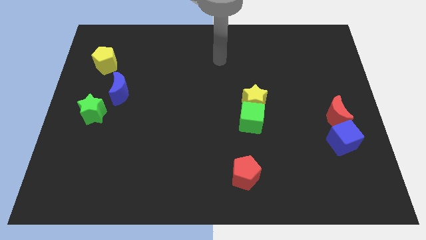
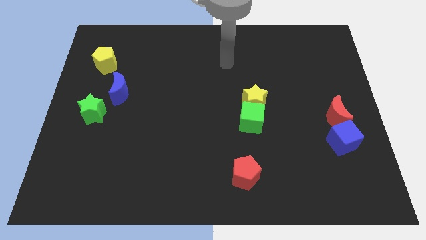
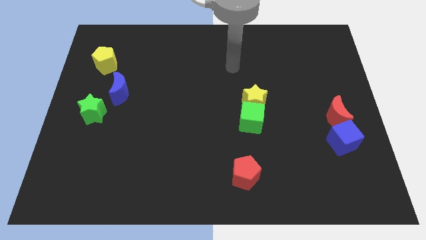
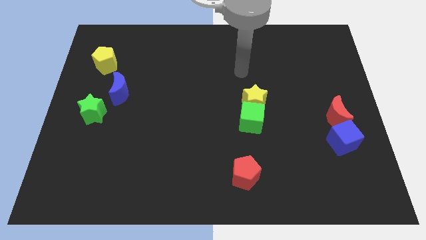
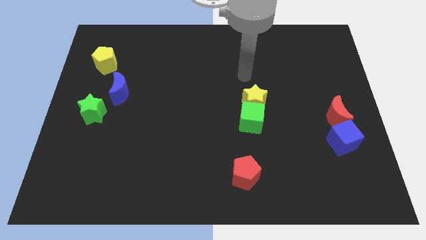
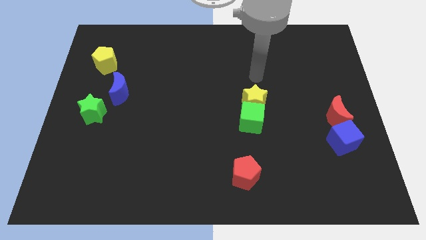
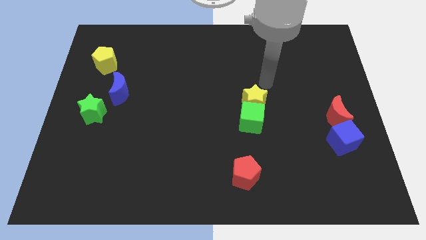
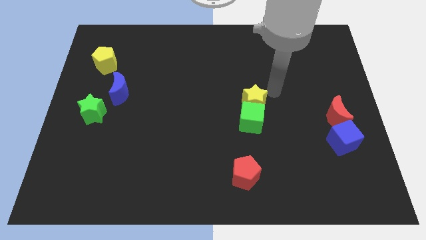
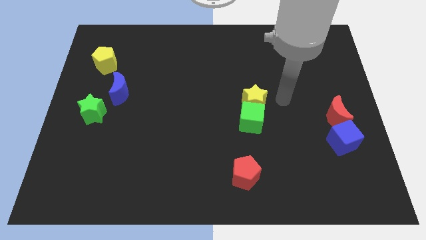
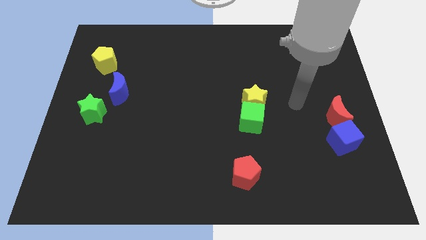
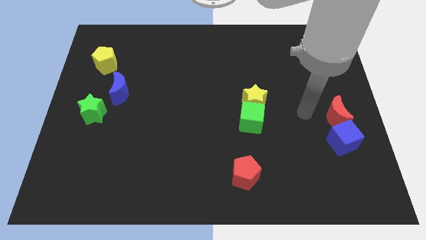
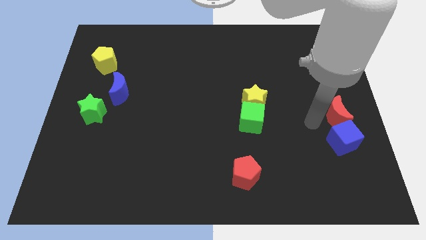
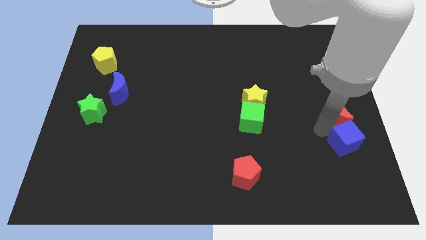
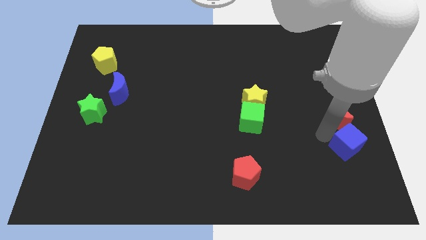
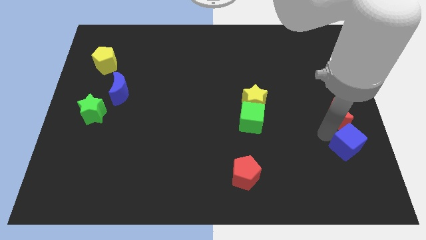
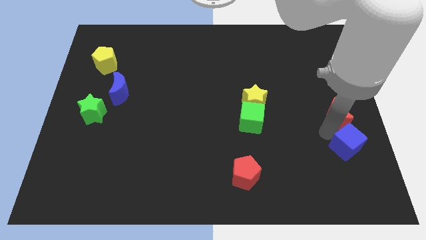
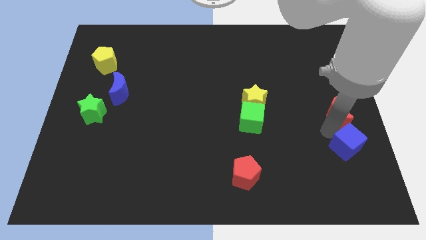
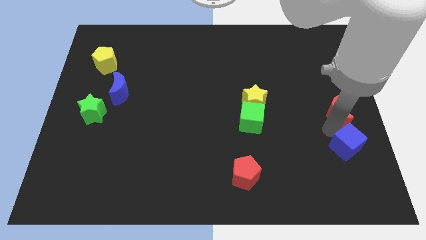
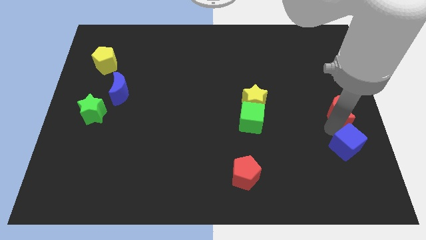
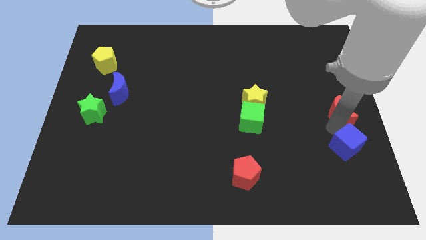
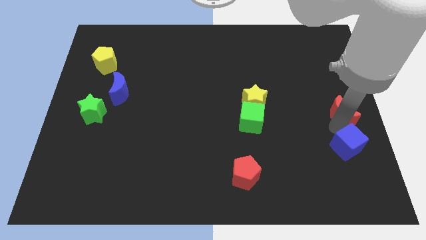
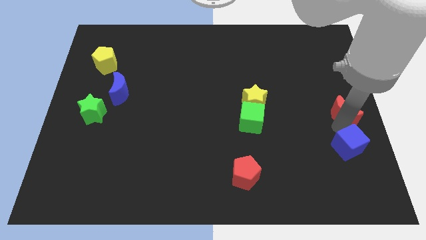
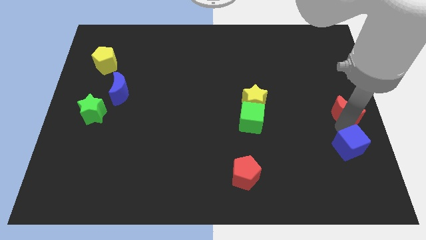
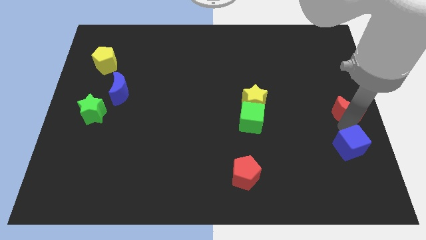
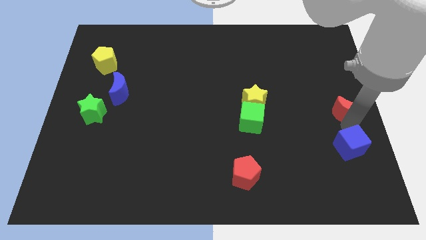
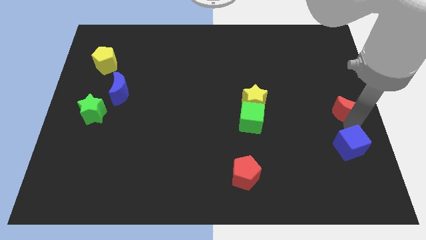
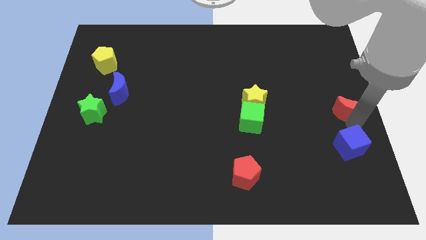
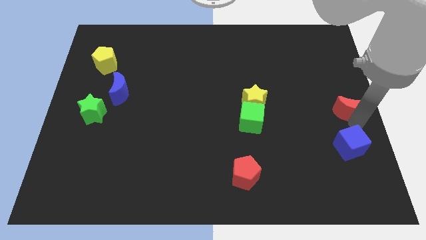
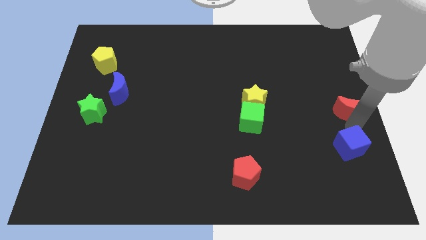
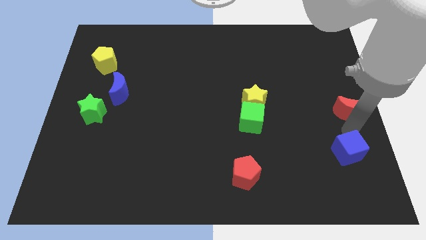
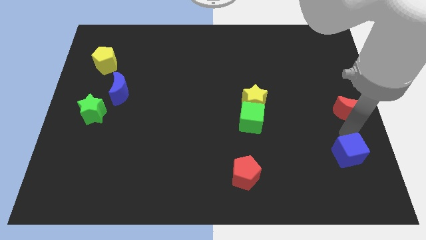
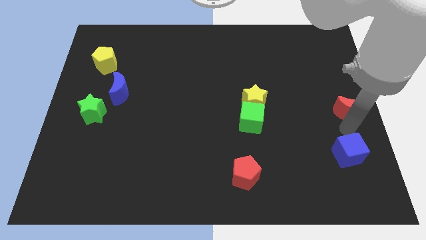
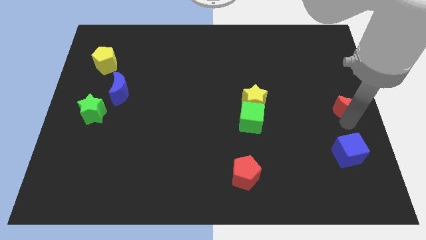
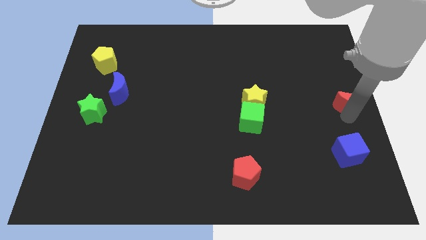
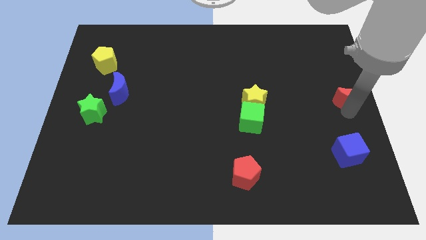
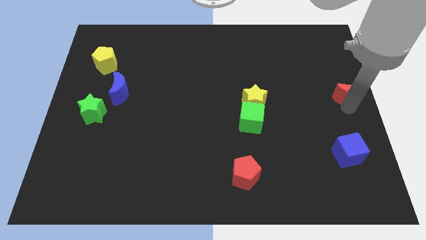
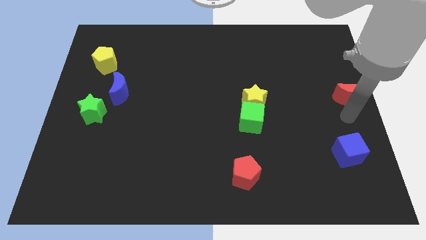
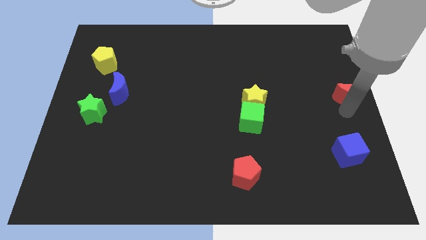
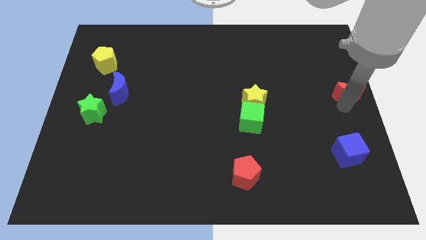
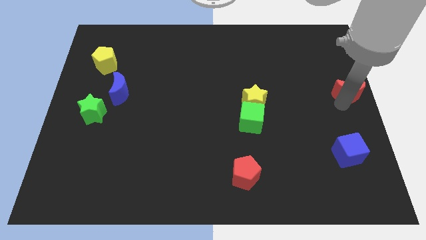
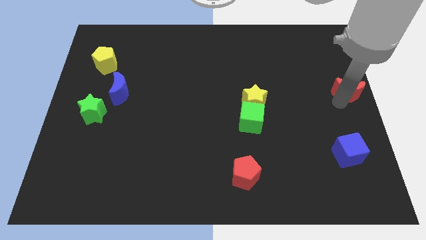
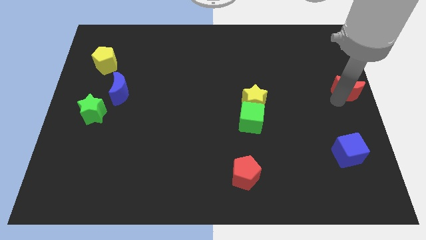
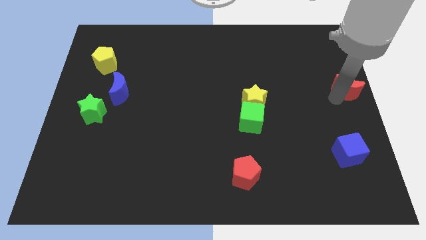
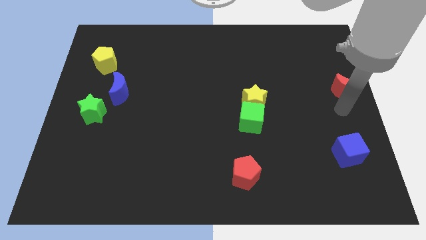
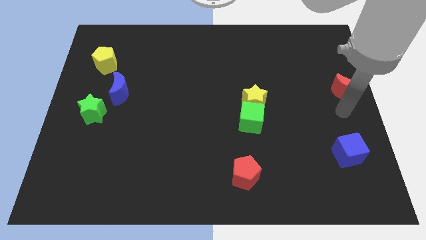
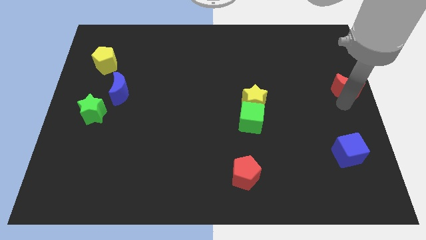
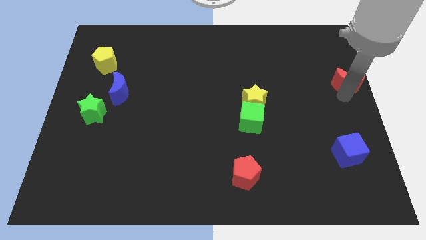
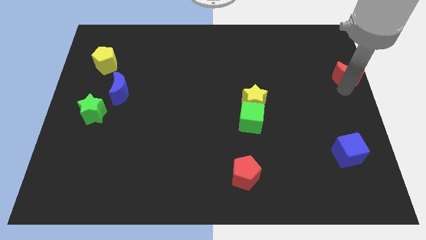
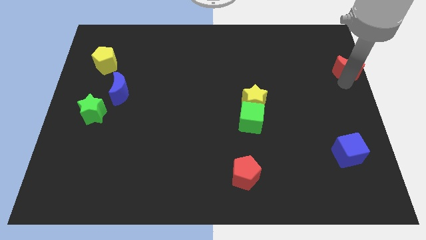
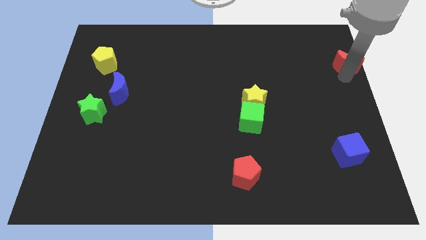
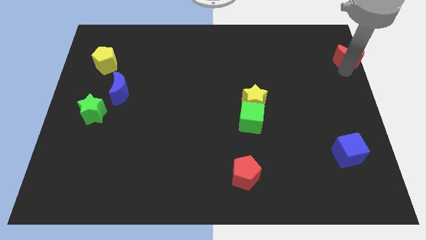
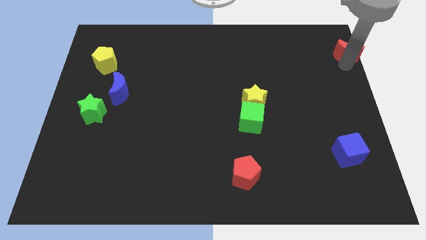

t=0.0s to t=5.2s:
push the red moon to the top right of the board
